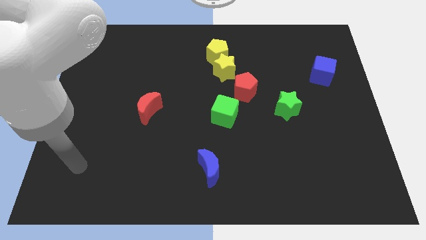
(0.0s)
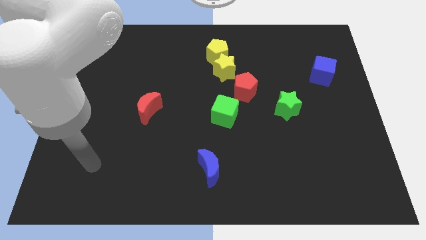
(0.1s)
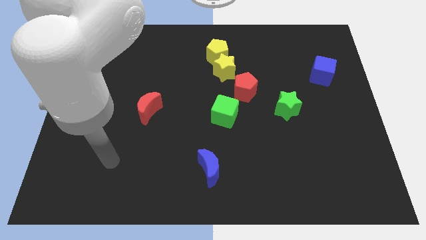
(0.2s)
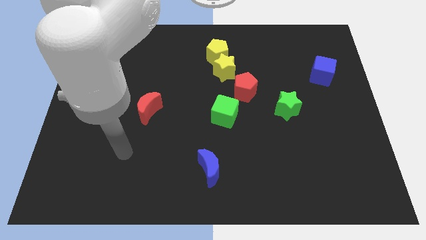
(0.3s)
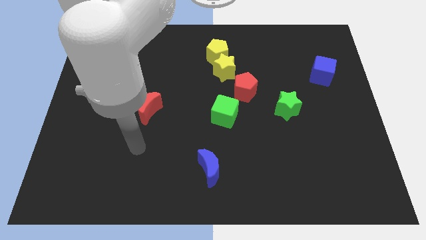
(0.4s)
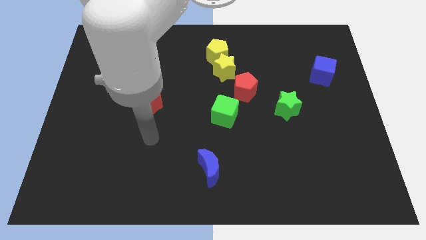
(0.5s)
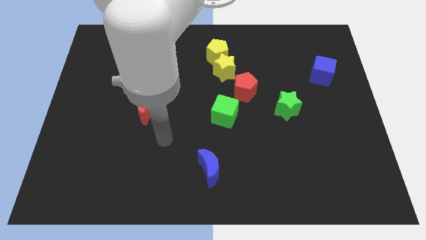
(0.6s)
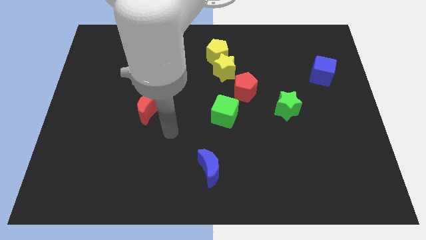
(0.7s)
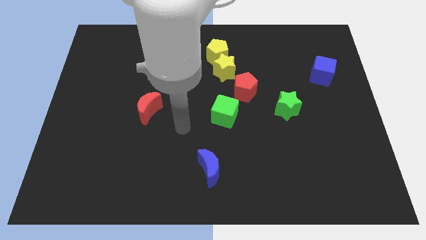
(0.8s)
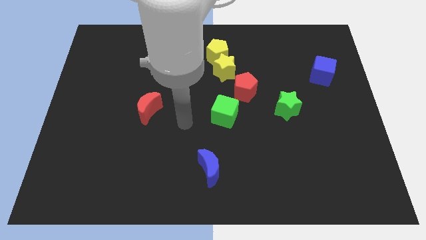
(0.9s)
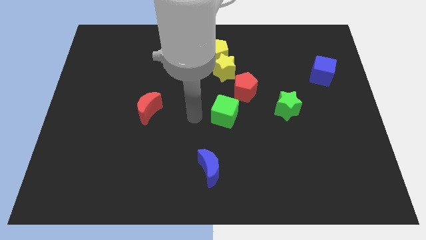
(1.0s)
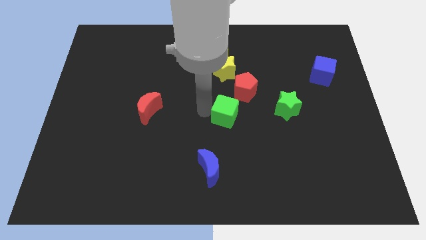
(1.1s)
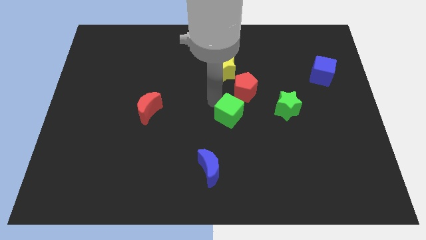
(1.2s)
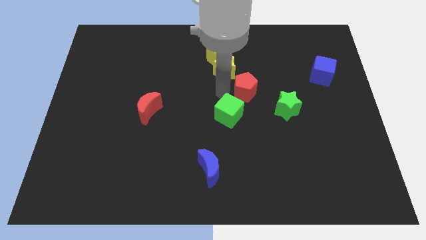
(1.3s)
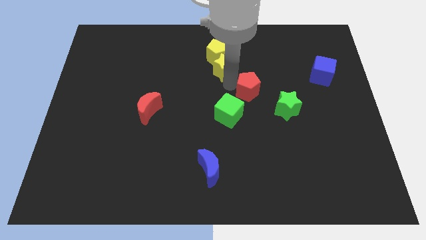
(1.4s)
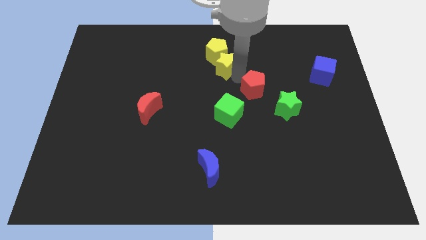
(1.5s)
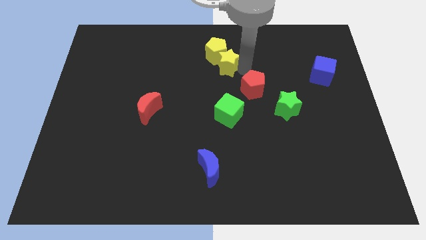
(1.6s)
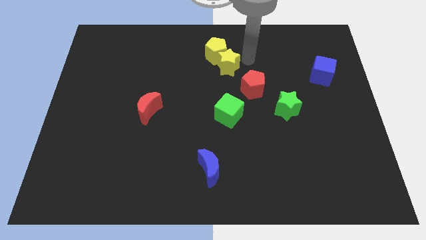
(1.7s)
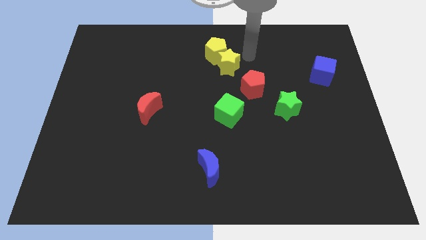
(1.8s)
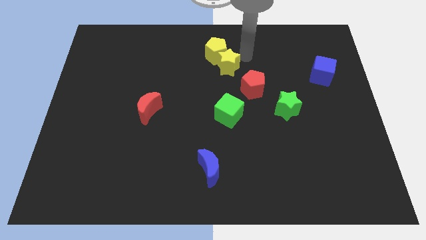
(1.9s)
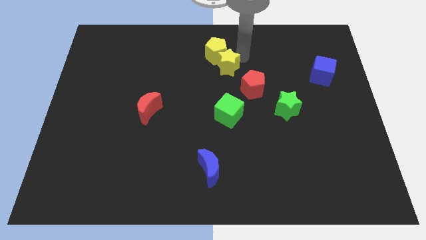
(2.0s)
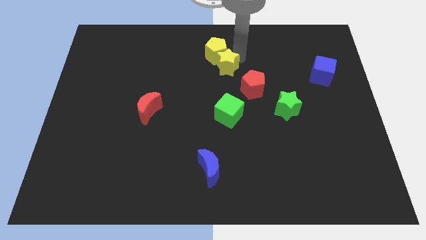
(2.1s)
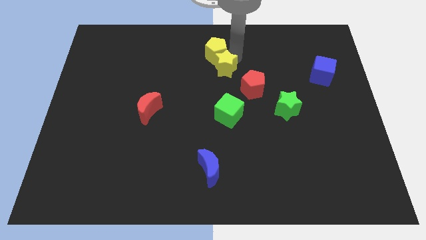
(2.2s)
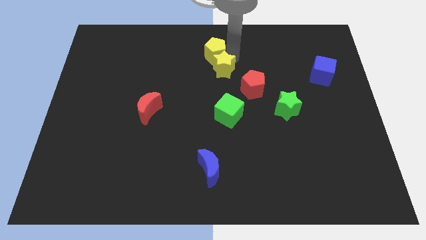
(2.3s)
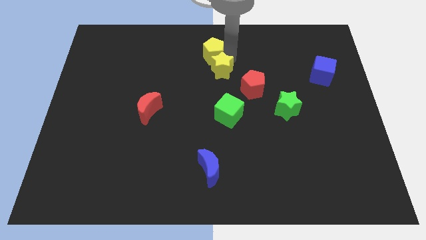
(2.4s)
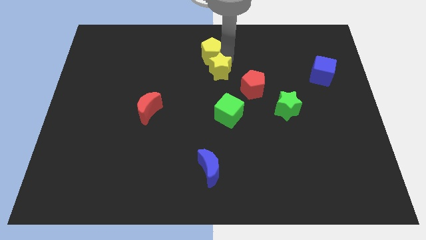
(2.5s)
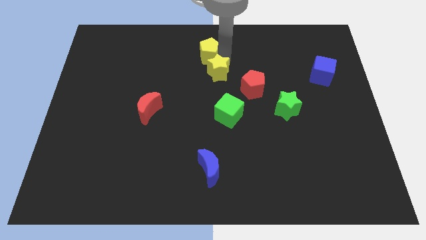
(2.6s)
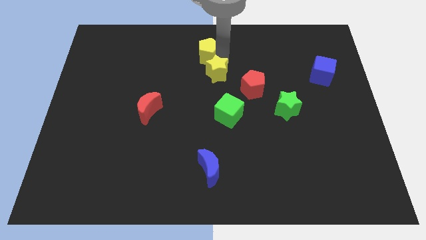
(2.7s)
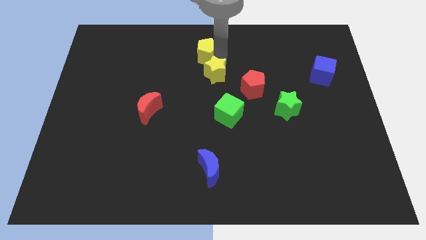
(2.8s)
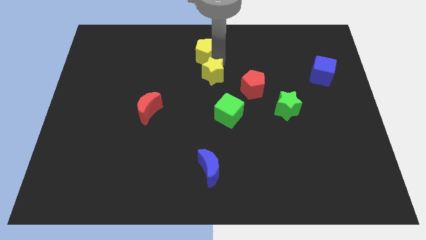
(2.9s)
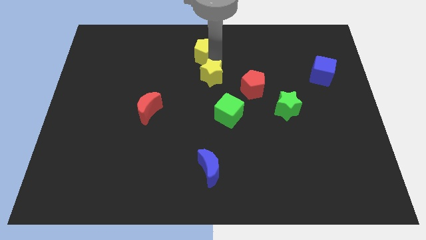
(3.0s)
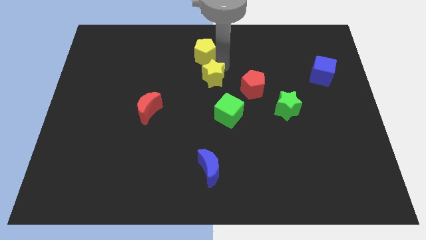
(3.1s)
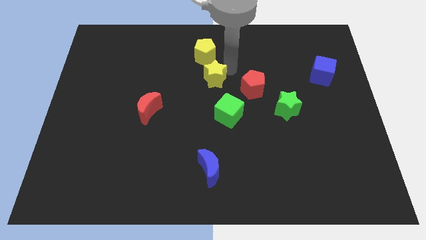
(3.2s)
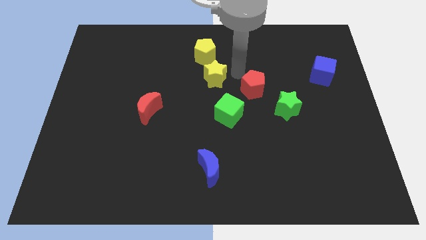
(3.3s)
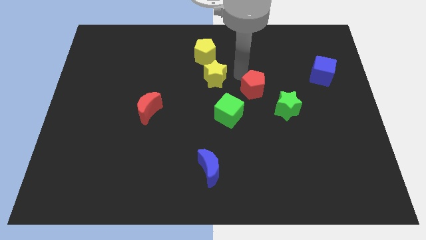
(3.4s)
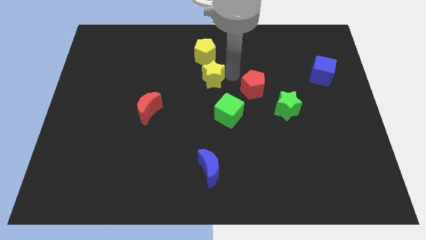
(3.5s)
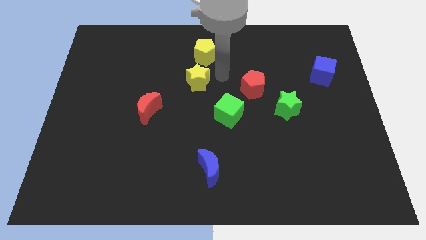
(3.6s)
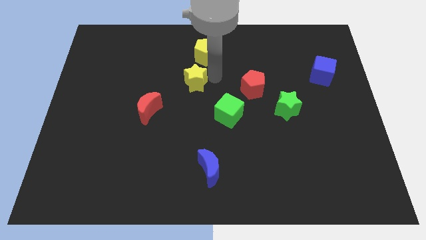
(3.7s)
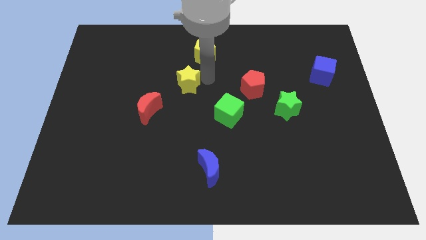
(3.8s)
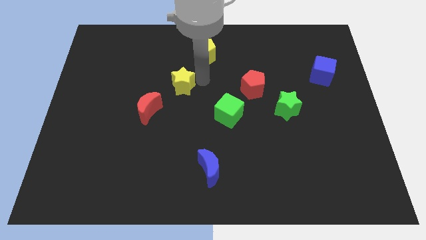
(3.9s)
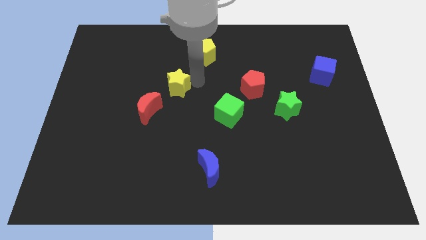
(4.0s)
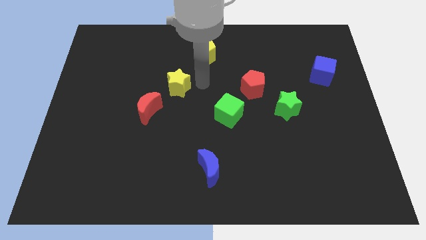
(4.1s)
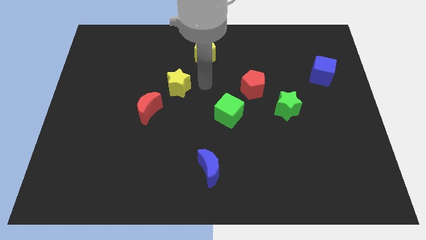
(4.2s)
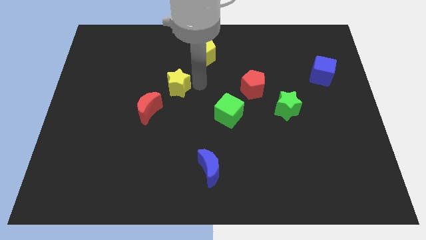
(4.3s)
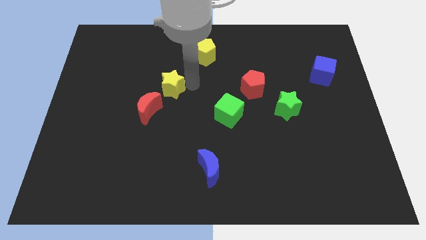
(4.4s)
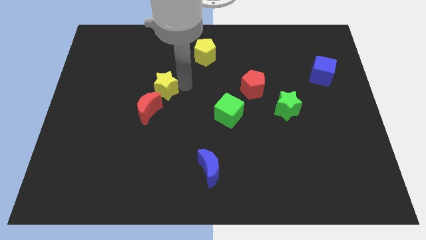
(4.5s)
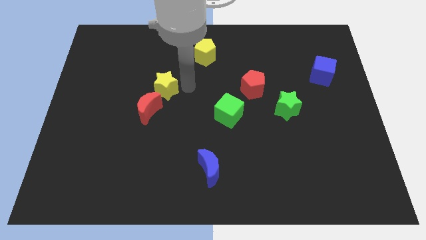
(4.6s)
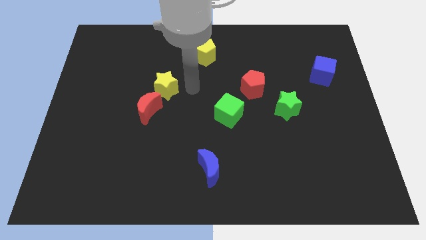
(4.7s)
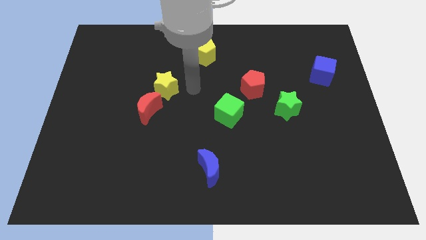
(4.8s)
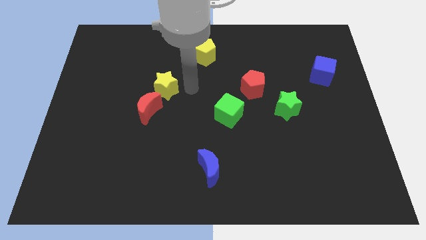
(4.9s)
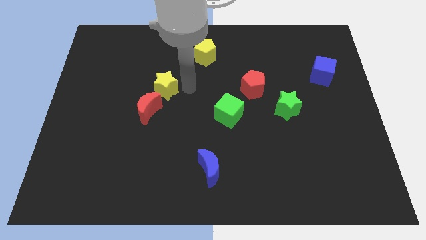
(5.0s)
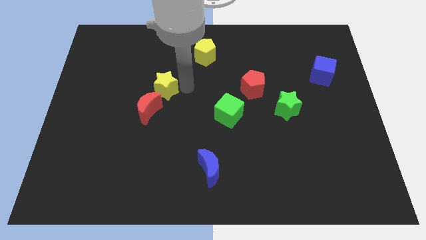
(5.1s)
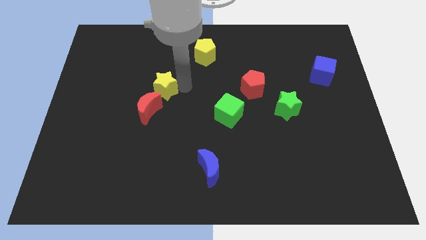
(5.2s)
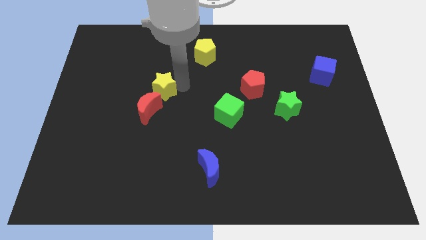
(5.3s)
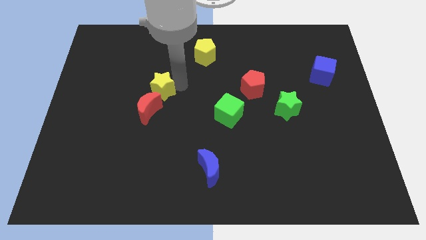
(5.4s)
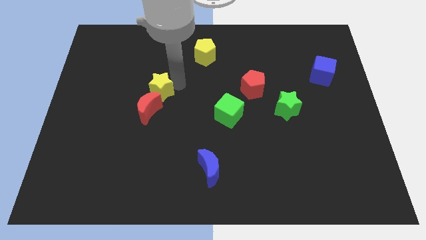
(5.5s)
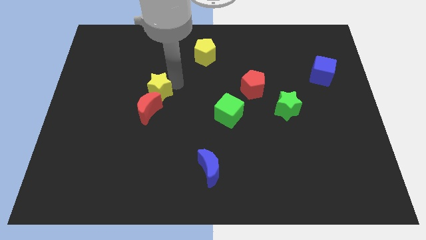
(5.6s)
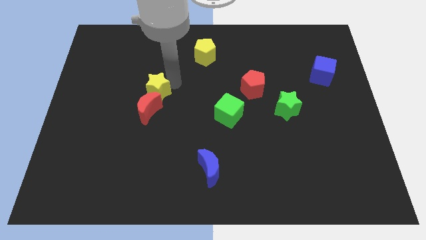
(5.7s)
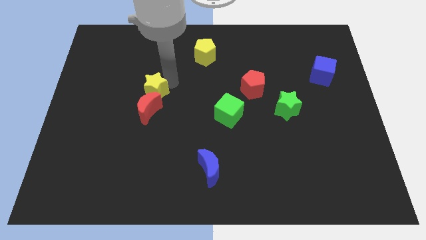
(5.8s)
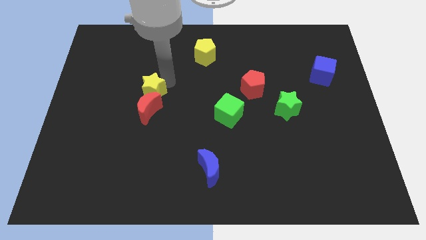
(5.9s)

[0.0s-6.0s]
move the yellow star to the top left of the red moon
